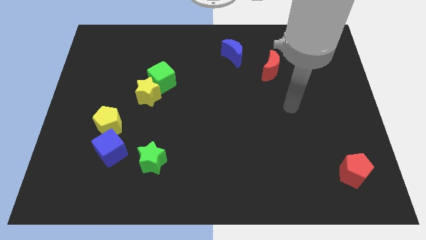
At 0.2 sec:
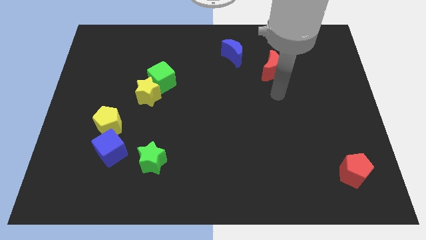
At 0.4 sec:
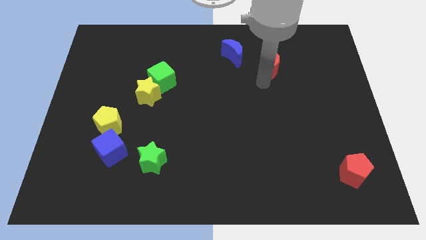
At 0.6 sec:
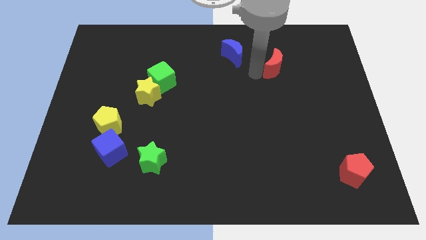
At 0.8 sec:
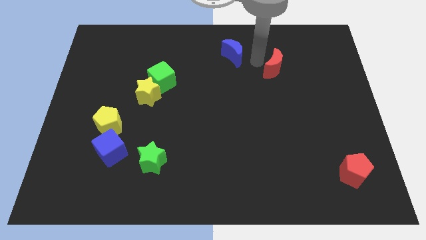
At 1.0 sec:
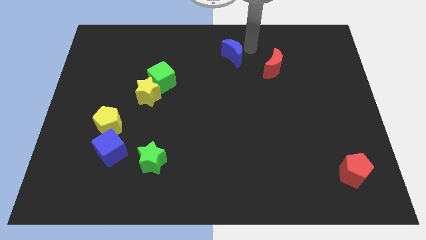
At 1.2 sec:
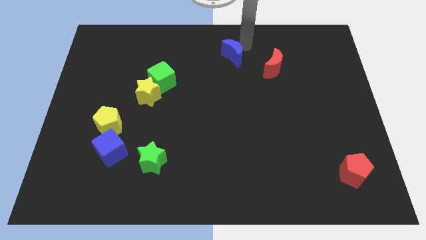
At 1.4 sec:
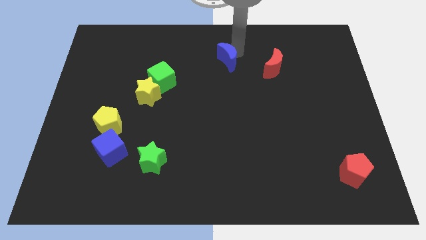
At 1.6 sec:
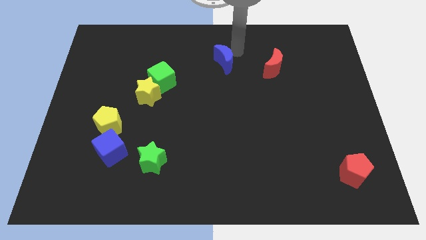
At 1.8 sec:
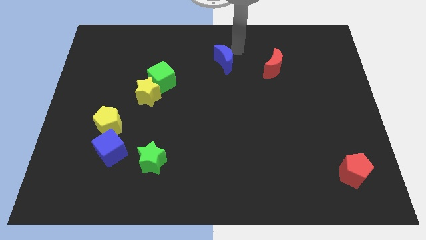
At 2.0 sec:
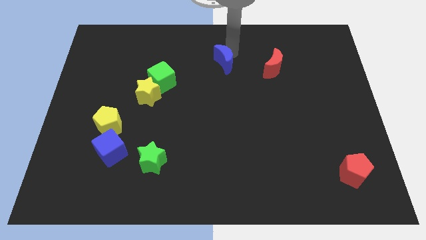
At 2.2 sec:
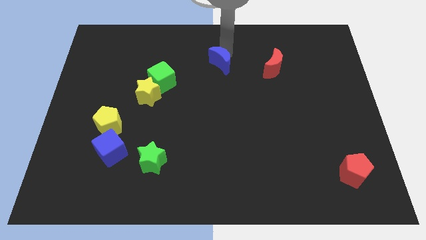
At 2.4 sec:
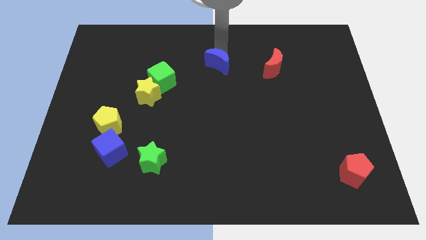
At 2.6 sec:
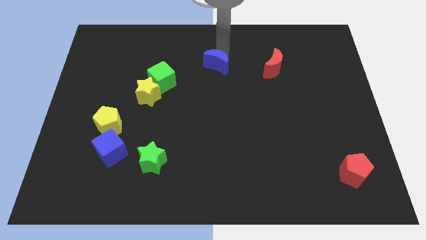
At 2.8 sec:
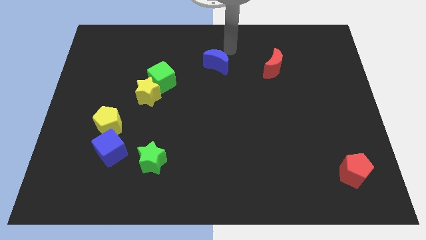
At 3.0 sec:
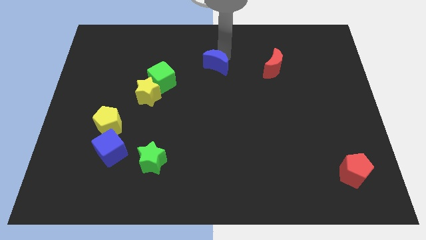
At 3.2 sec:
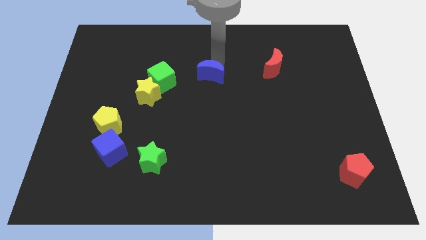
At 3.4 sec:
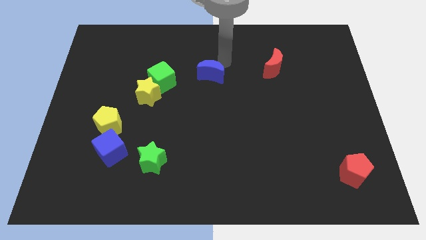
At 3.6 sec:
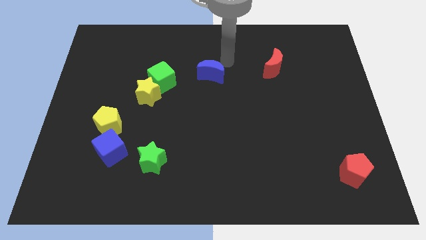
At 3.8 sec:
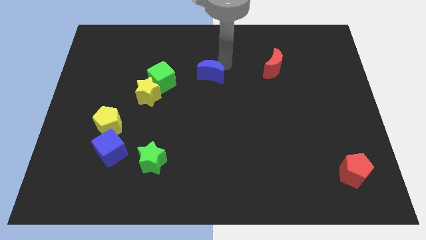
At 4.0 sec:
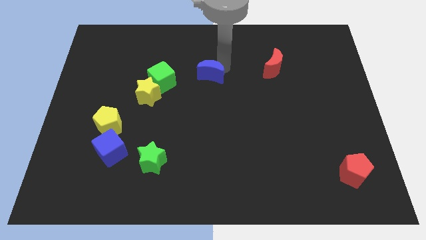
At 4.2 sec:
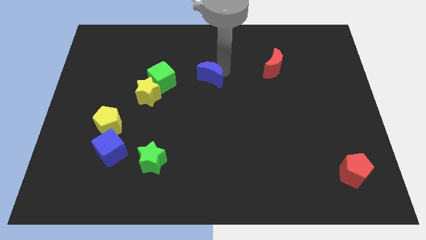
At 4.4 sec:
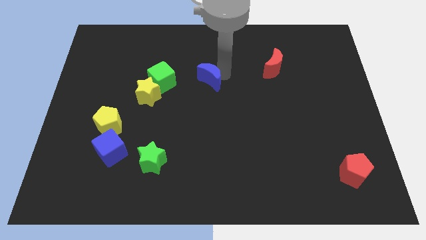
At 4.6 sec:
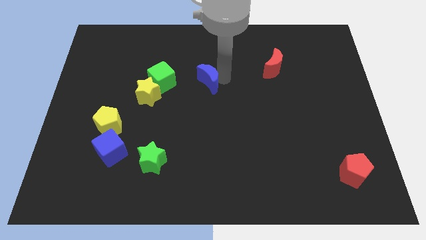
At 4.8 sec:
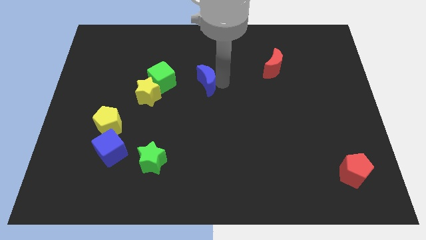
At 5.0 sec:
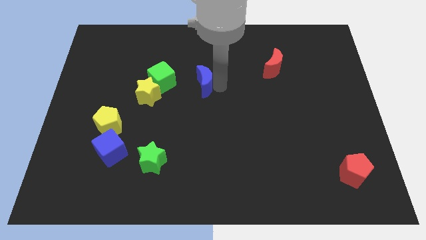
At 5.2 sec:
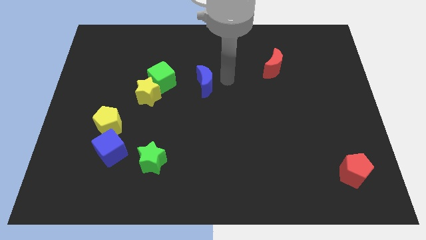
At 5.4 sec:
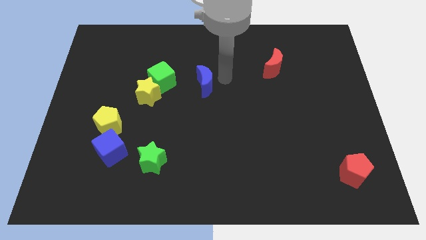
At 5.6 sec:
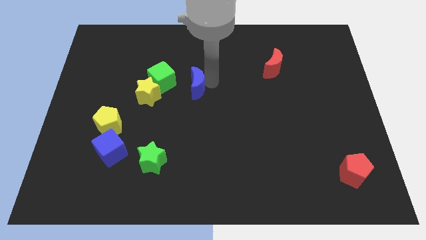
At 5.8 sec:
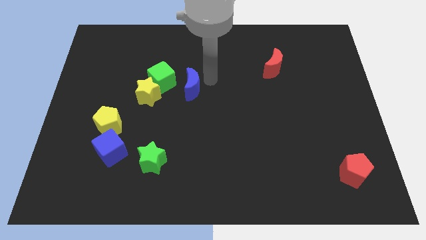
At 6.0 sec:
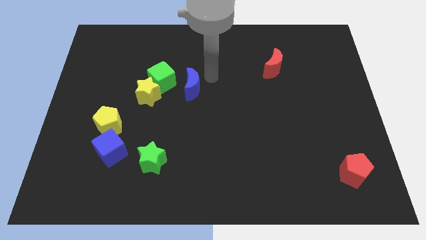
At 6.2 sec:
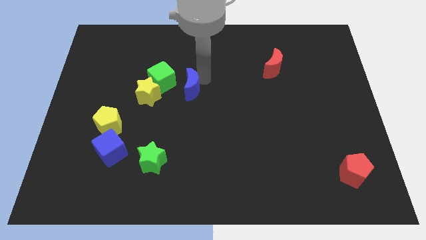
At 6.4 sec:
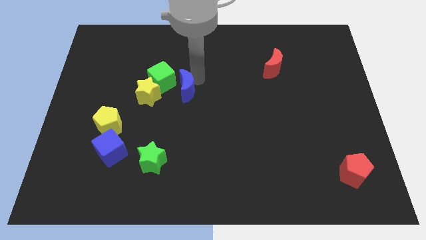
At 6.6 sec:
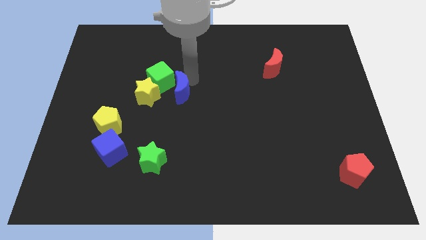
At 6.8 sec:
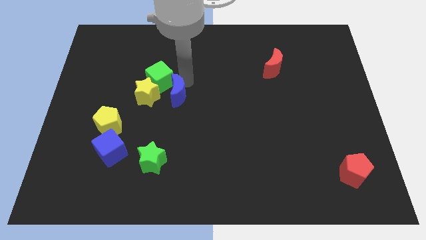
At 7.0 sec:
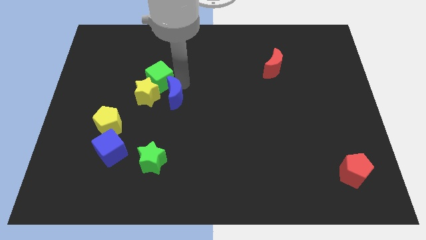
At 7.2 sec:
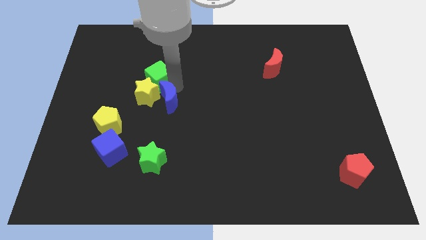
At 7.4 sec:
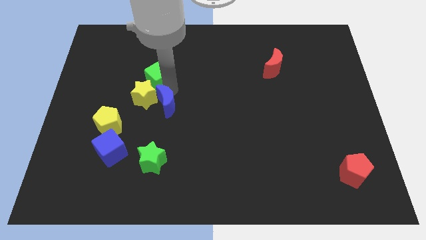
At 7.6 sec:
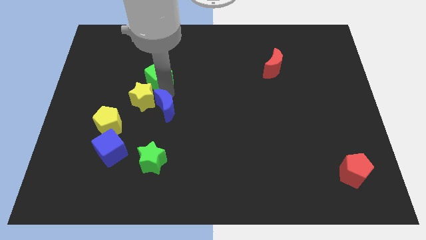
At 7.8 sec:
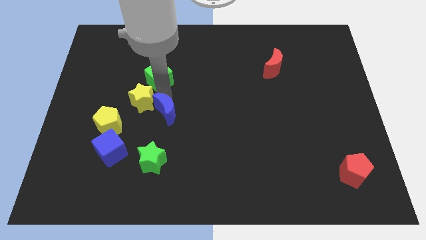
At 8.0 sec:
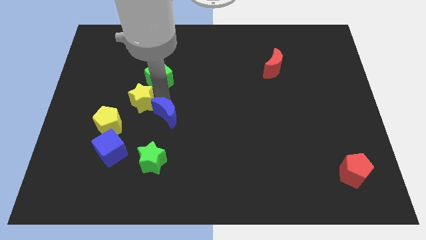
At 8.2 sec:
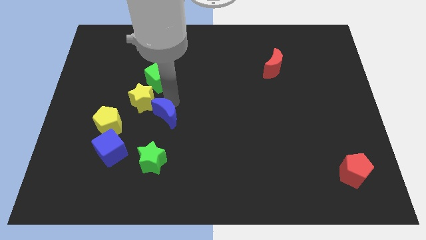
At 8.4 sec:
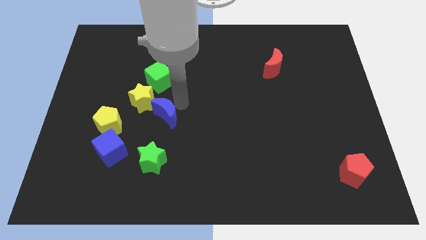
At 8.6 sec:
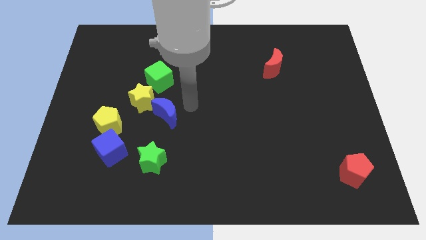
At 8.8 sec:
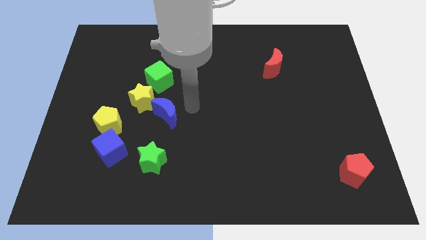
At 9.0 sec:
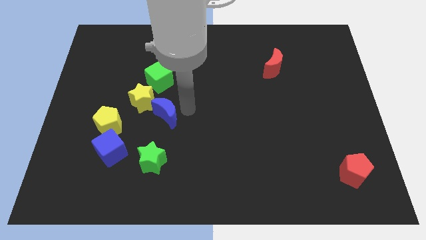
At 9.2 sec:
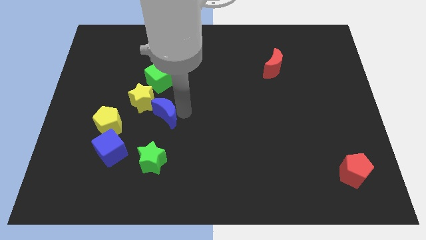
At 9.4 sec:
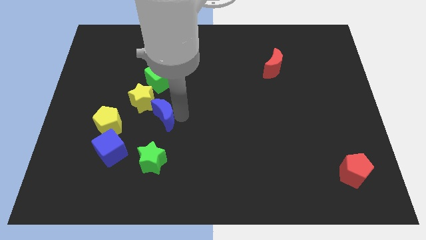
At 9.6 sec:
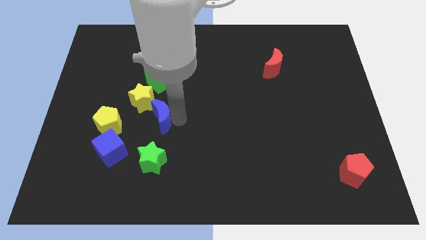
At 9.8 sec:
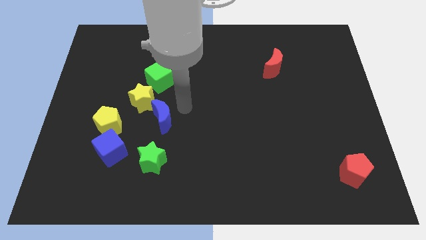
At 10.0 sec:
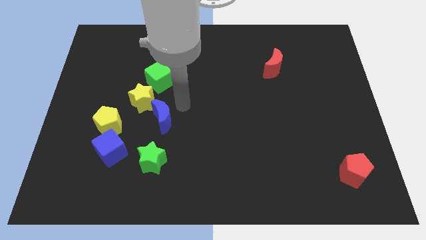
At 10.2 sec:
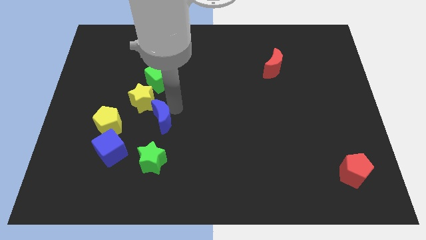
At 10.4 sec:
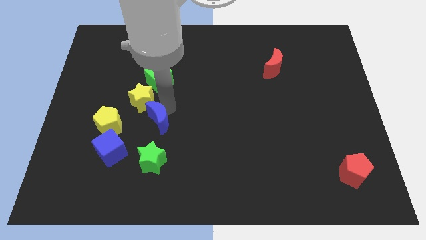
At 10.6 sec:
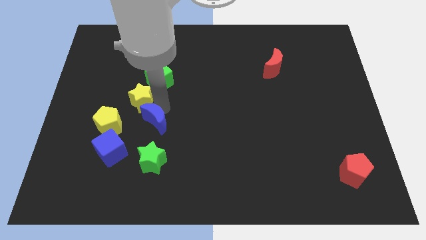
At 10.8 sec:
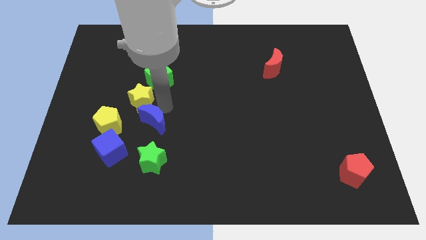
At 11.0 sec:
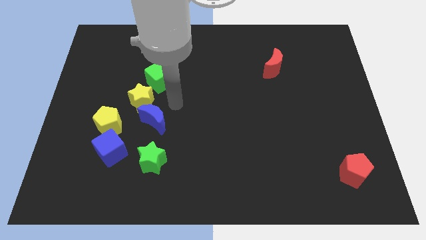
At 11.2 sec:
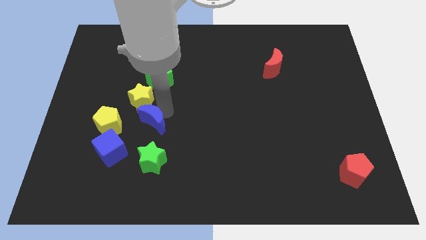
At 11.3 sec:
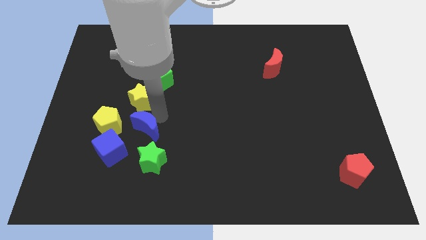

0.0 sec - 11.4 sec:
slide the blue moon to the top left of the green star

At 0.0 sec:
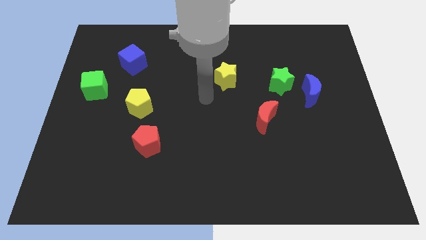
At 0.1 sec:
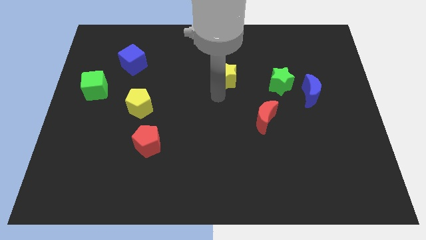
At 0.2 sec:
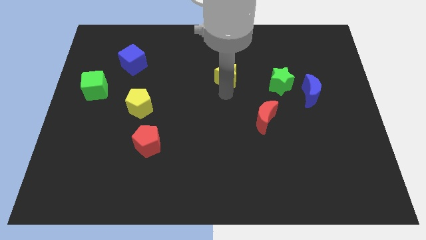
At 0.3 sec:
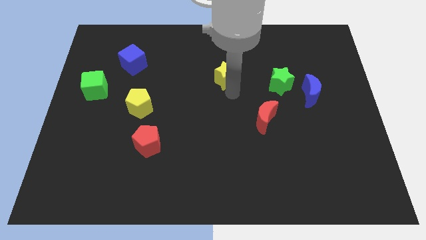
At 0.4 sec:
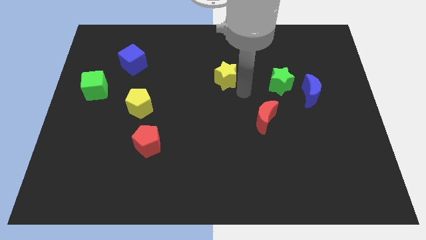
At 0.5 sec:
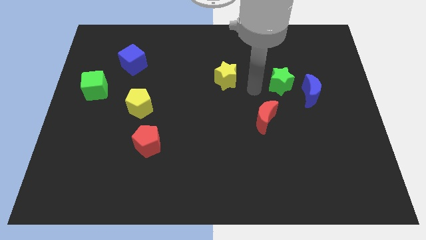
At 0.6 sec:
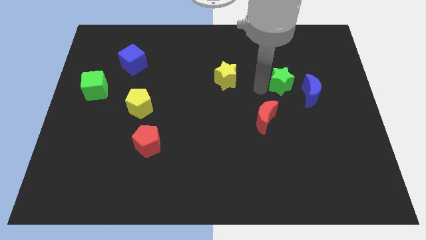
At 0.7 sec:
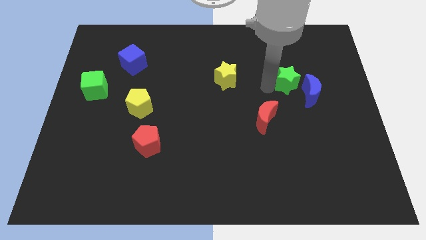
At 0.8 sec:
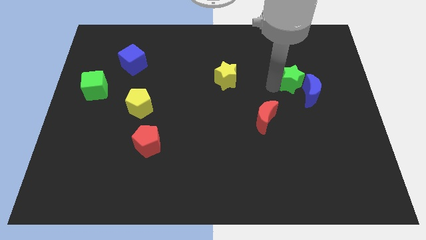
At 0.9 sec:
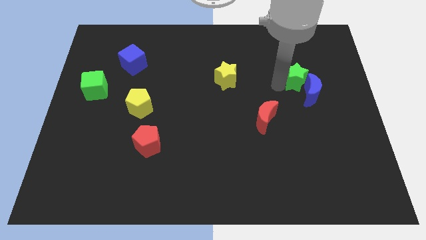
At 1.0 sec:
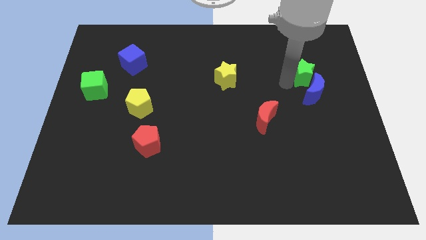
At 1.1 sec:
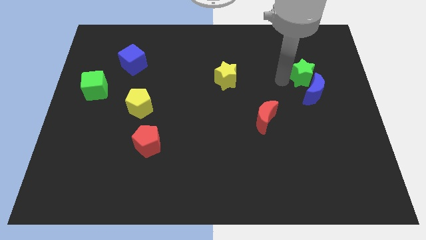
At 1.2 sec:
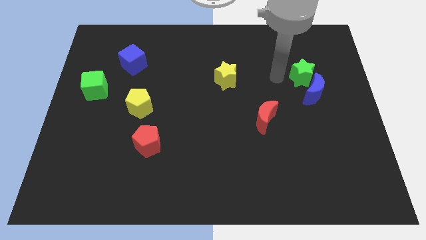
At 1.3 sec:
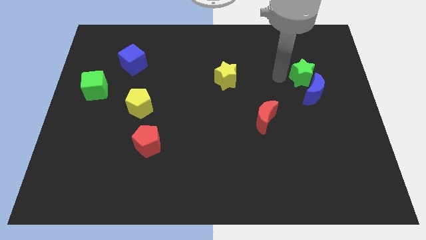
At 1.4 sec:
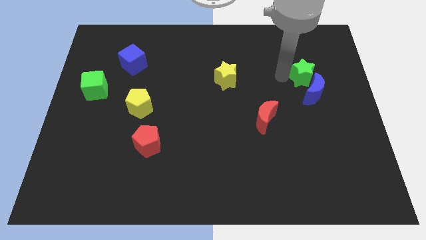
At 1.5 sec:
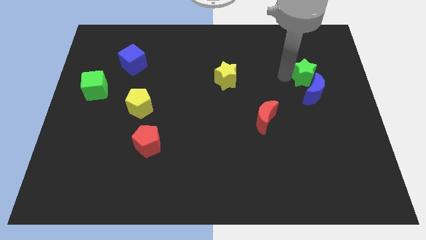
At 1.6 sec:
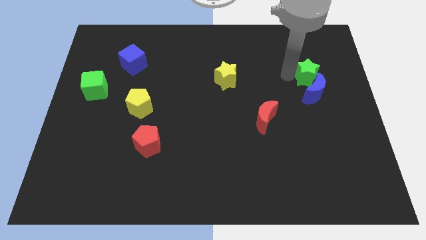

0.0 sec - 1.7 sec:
push the green star diagonally up and to the right of the blue moon
